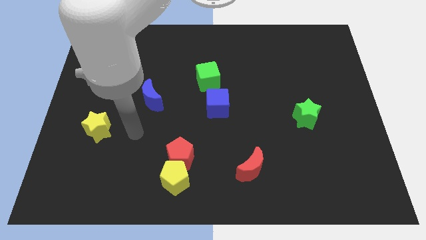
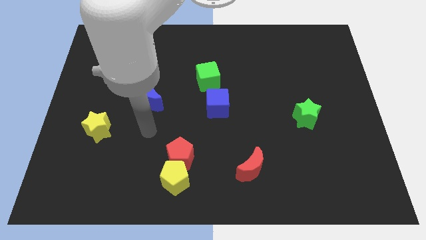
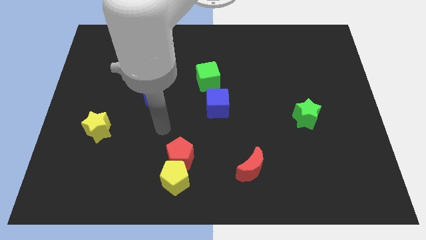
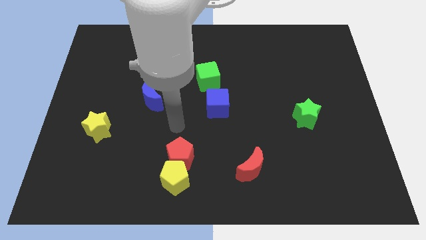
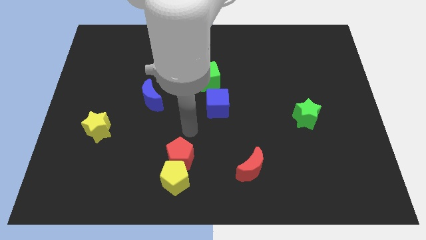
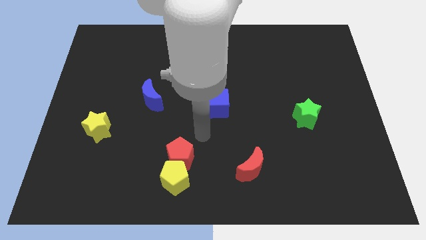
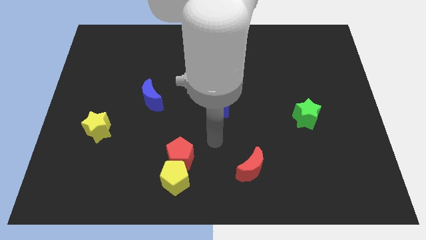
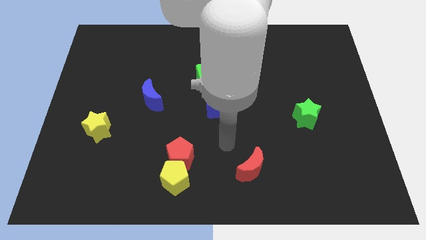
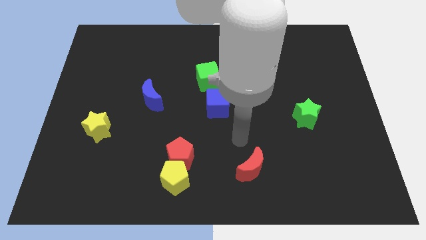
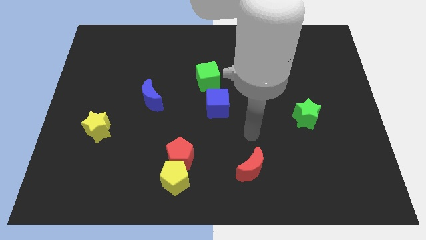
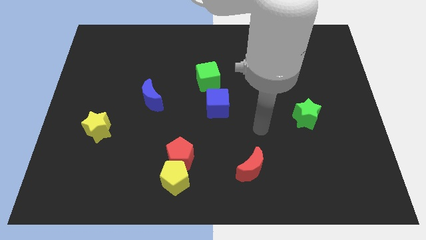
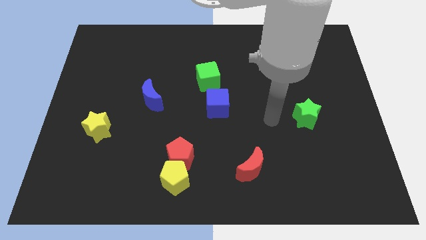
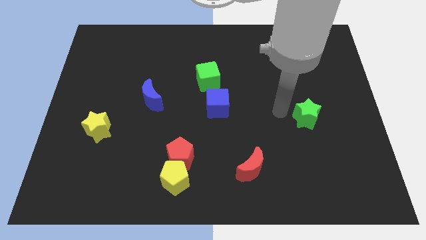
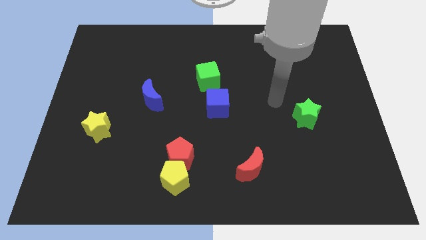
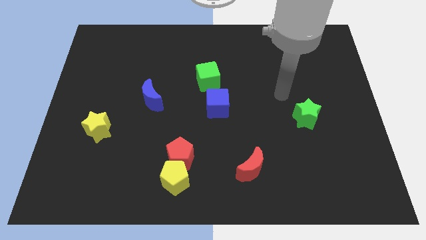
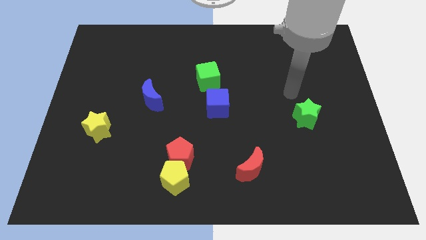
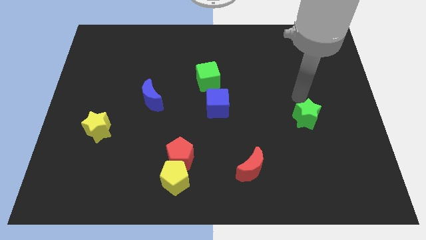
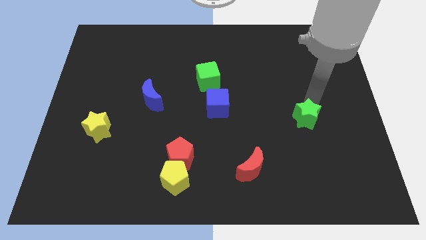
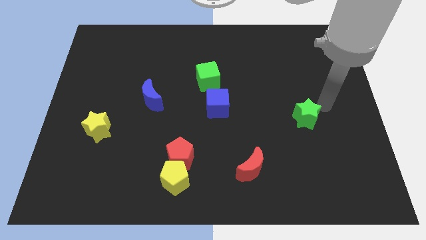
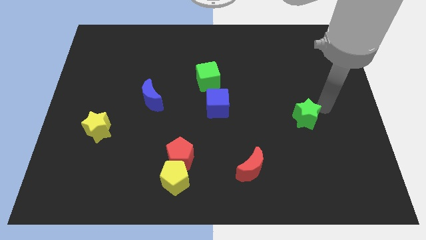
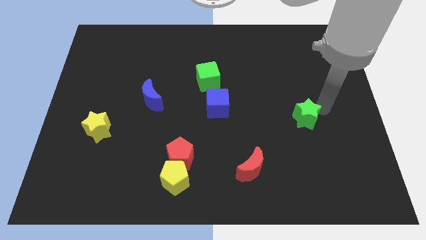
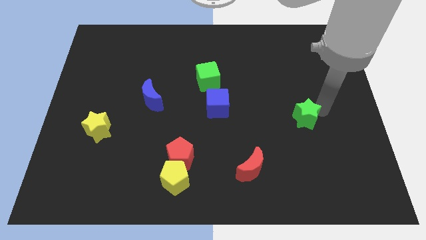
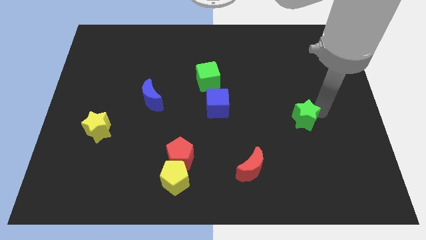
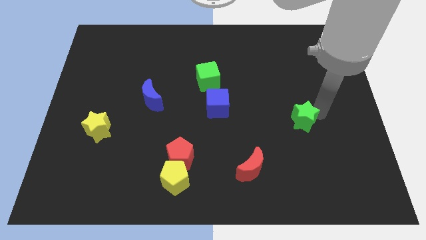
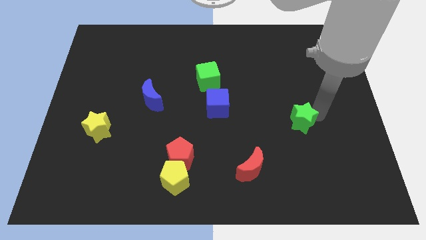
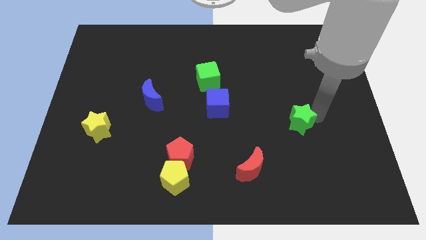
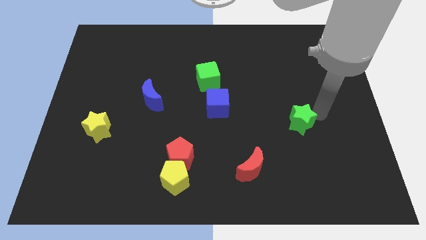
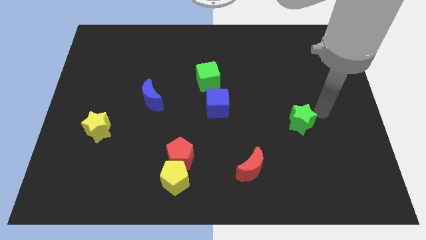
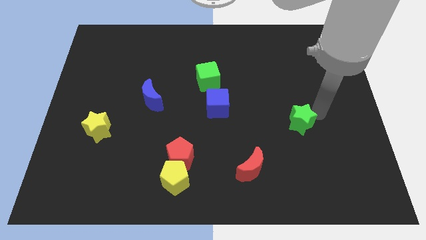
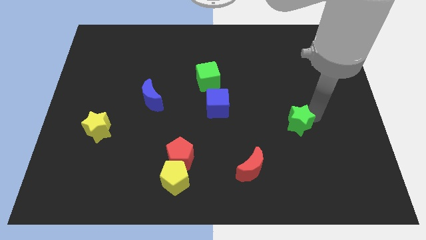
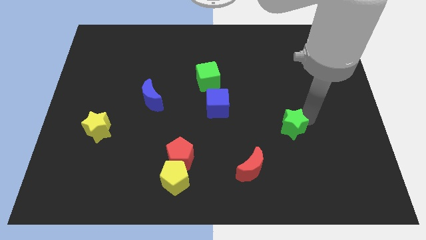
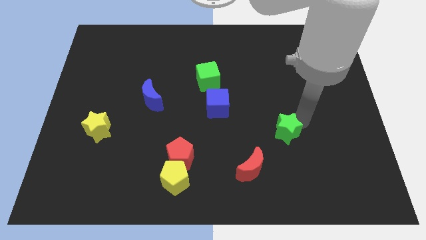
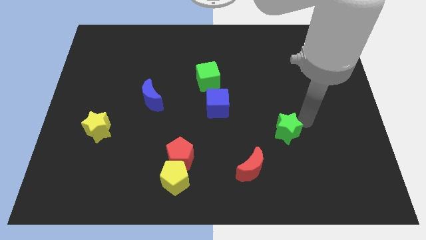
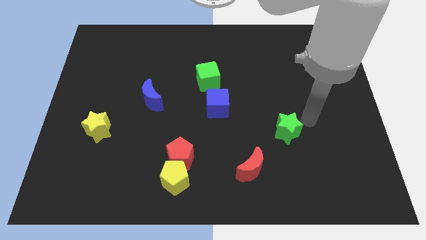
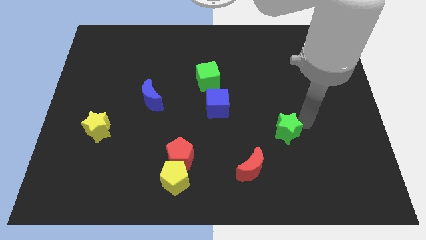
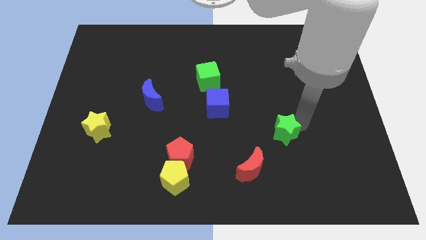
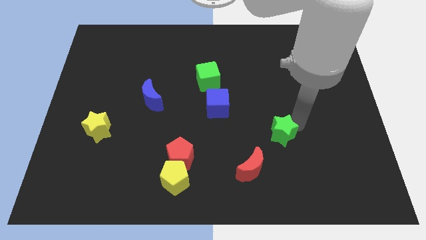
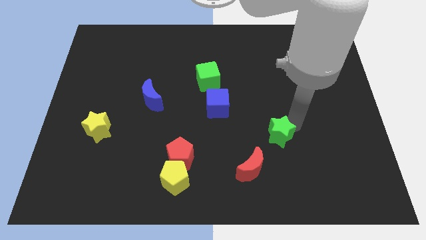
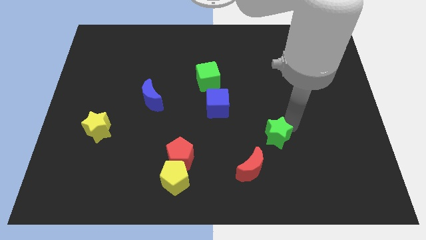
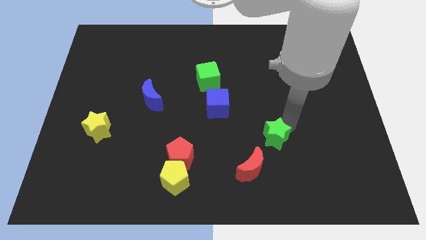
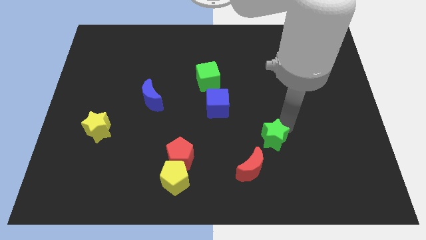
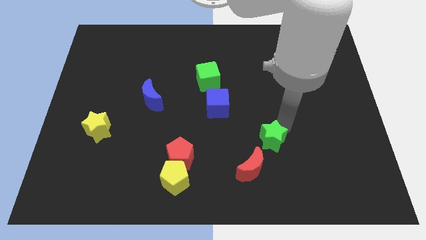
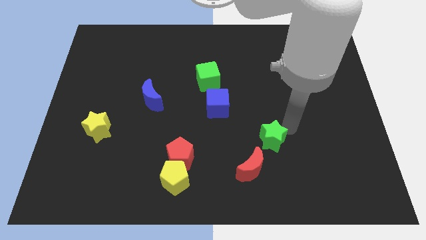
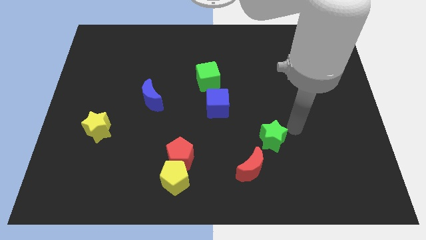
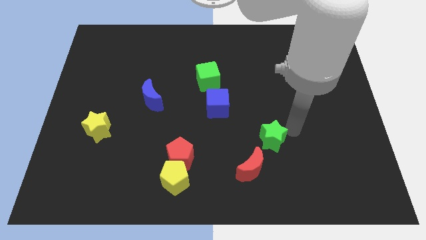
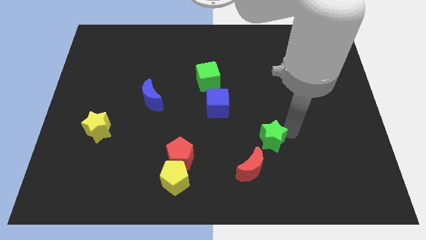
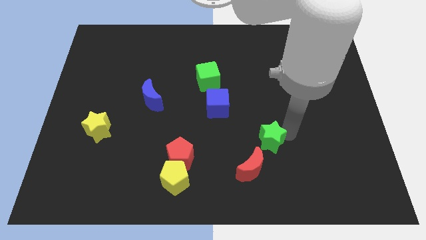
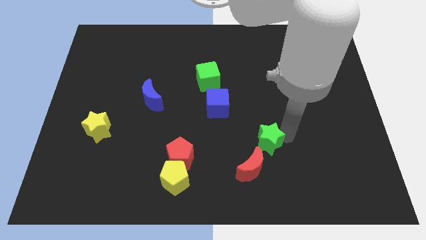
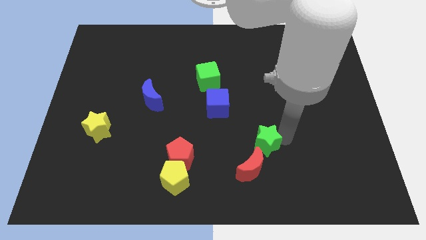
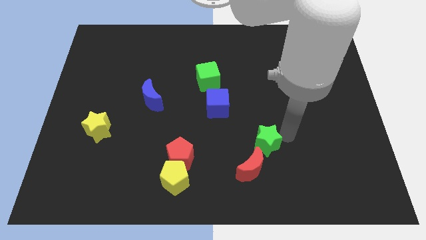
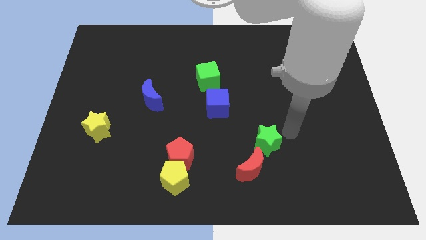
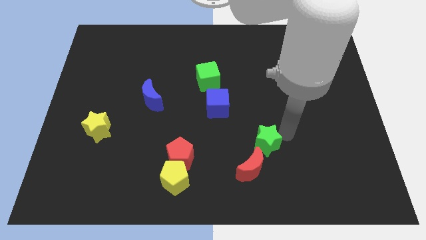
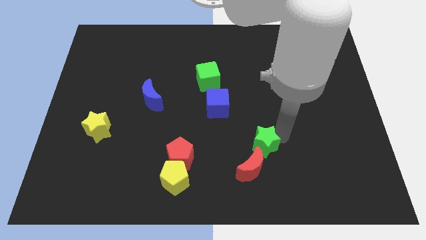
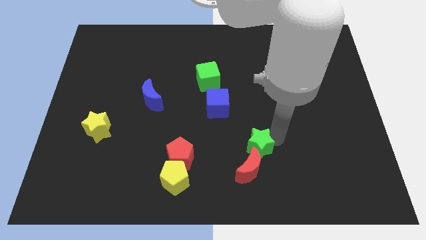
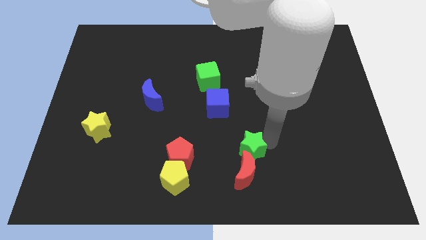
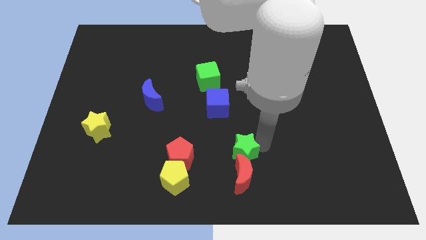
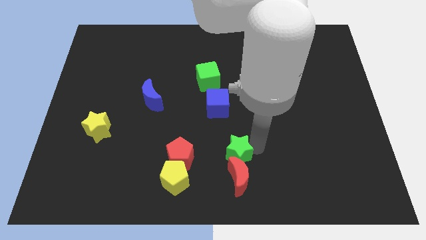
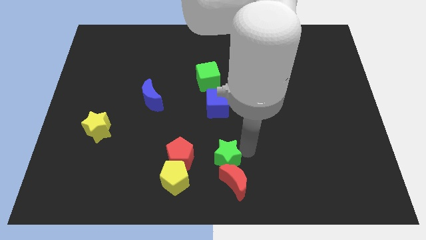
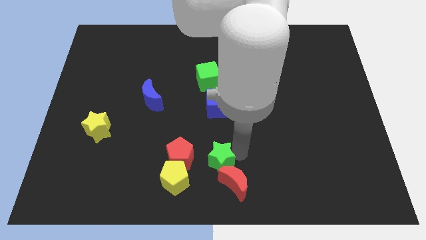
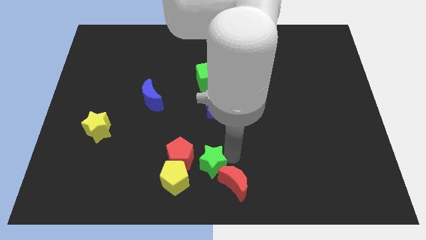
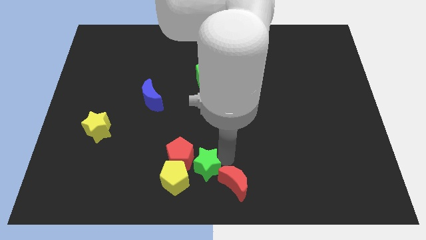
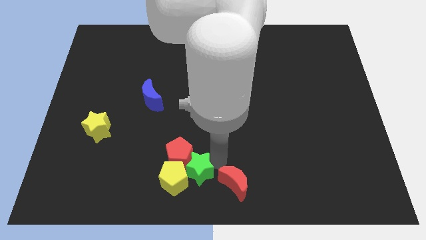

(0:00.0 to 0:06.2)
move the green star next to the yellow pentagon
